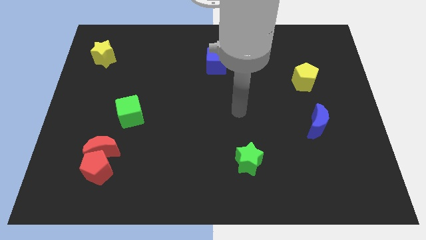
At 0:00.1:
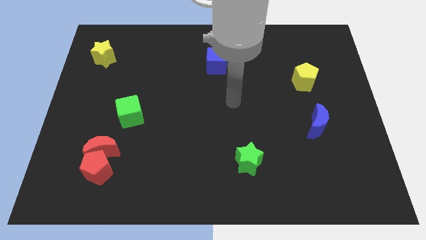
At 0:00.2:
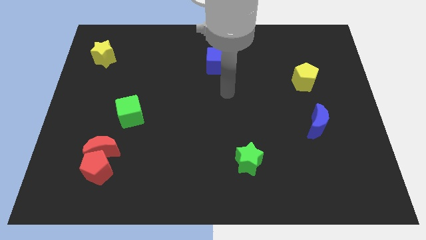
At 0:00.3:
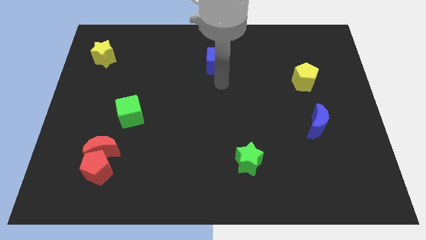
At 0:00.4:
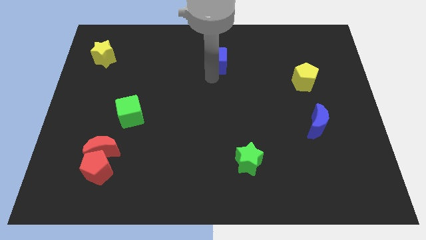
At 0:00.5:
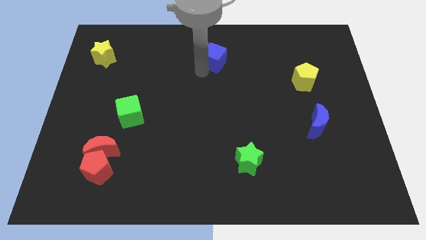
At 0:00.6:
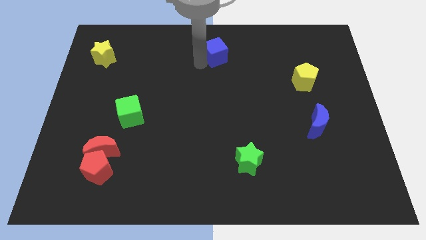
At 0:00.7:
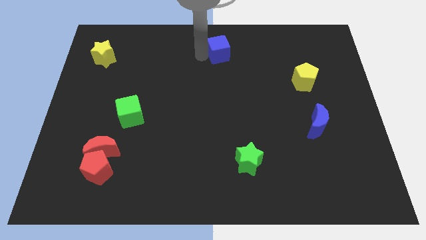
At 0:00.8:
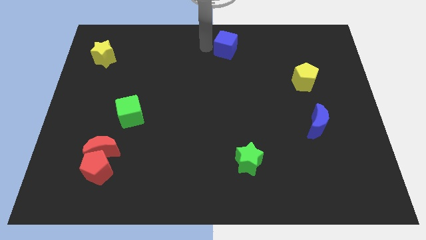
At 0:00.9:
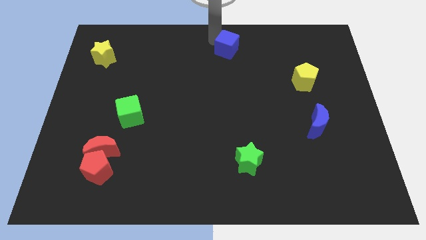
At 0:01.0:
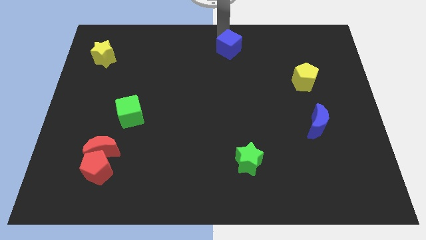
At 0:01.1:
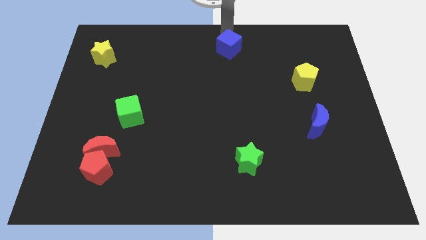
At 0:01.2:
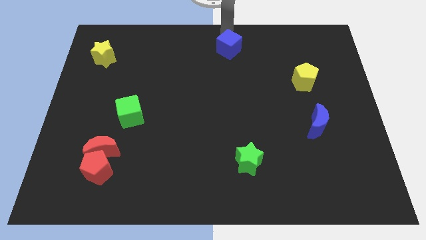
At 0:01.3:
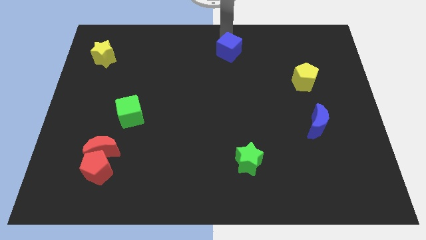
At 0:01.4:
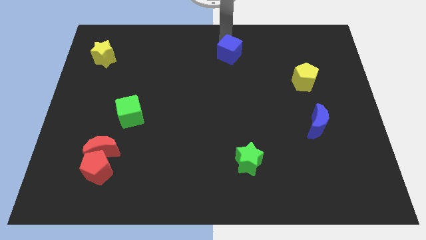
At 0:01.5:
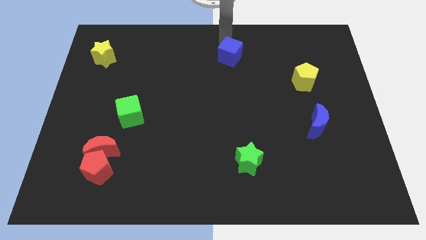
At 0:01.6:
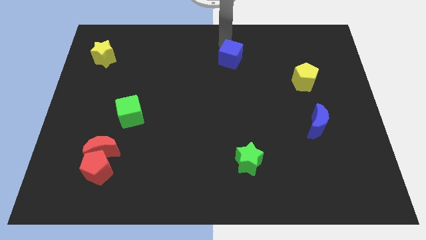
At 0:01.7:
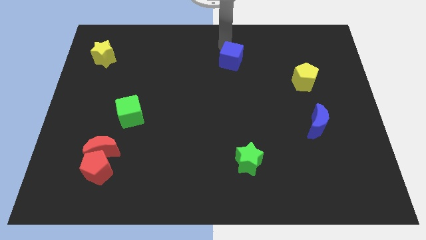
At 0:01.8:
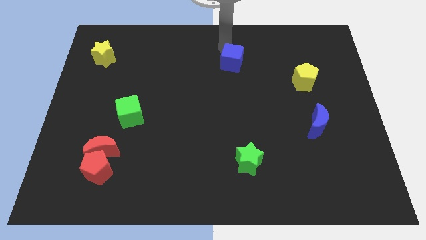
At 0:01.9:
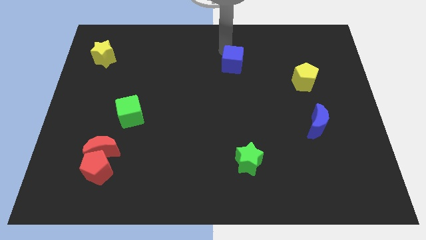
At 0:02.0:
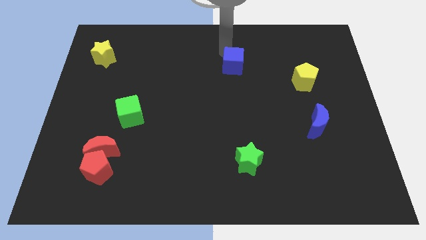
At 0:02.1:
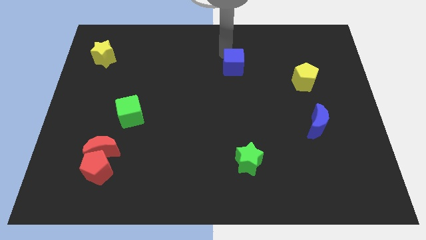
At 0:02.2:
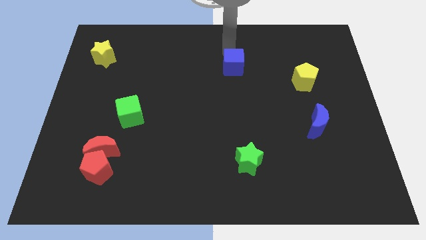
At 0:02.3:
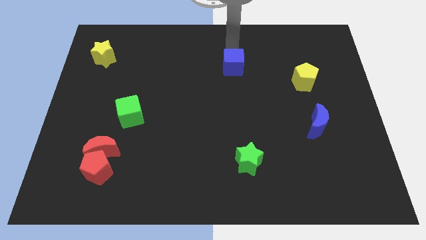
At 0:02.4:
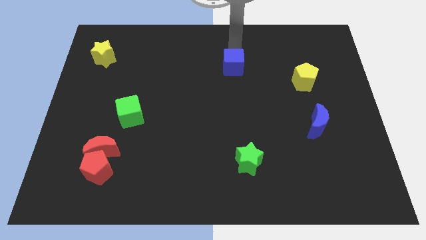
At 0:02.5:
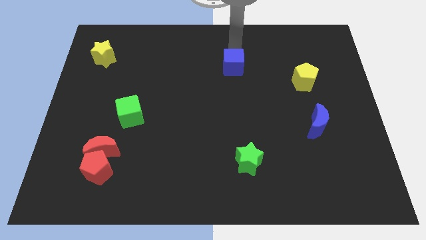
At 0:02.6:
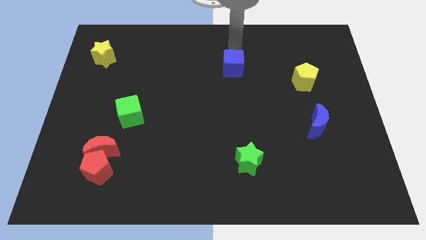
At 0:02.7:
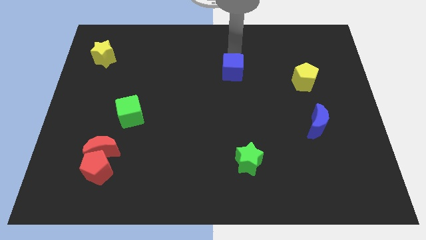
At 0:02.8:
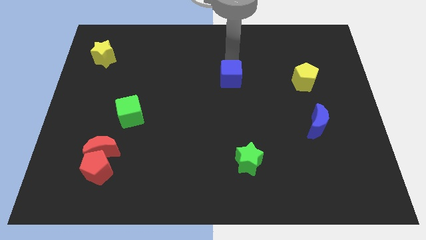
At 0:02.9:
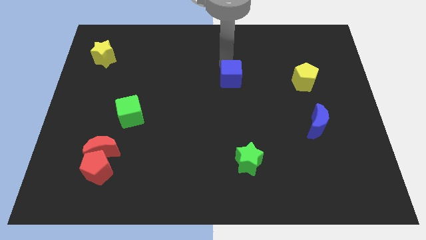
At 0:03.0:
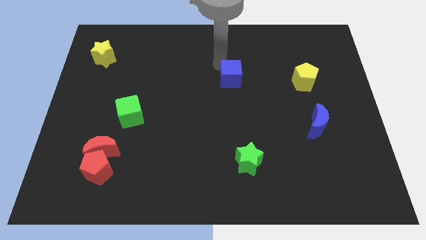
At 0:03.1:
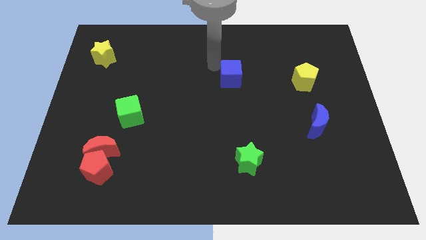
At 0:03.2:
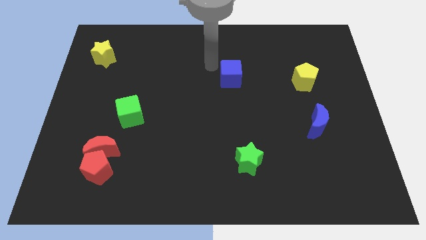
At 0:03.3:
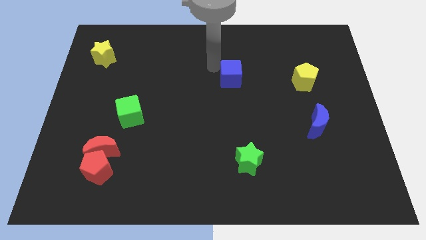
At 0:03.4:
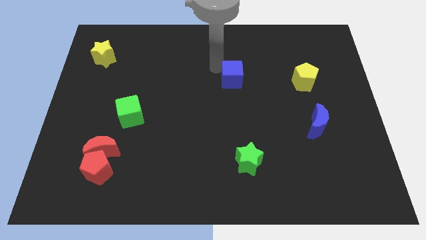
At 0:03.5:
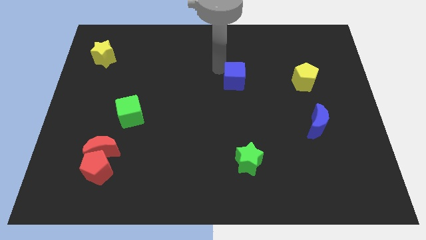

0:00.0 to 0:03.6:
slightly move the blue cube down and then right

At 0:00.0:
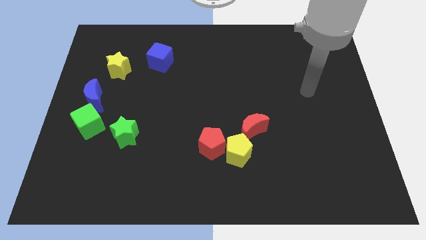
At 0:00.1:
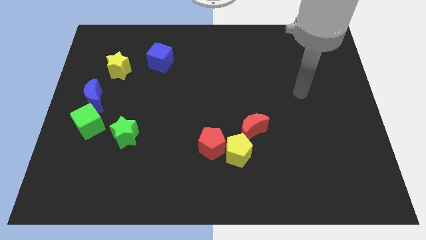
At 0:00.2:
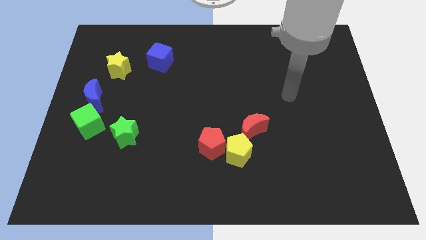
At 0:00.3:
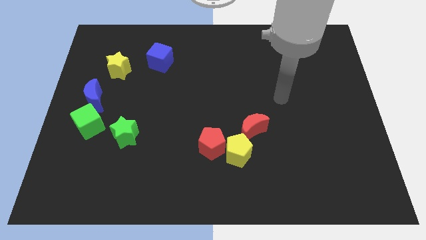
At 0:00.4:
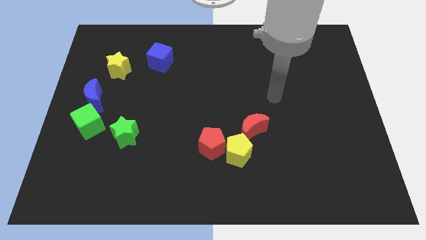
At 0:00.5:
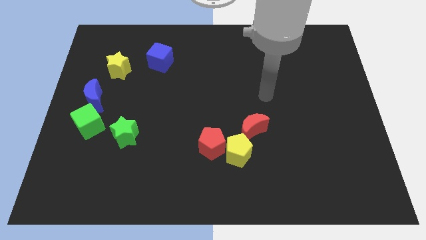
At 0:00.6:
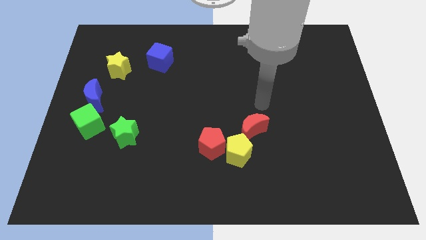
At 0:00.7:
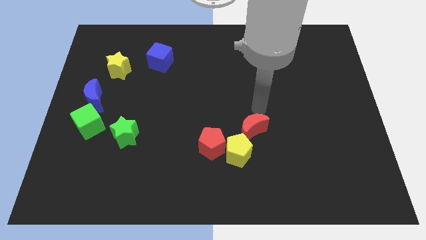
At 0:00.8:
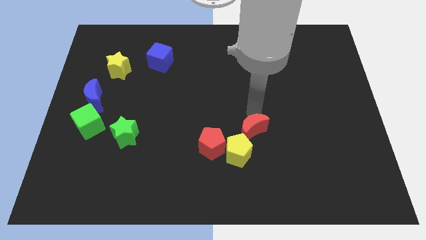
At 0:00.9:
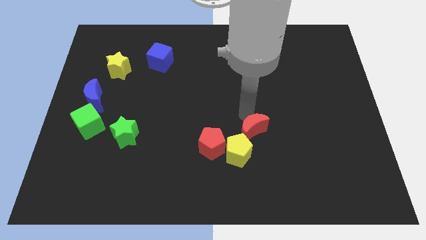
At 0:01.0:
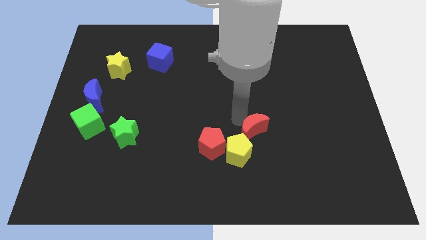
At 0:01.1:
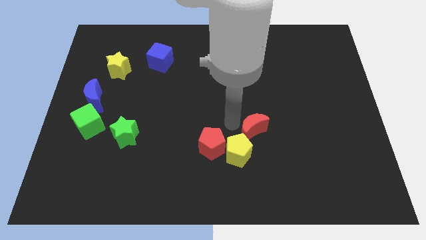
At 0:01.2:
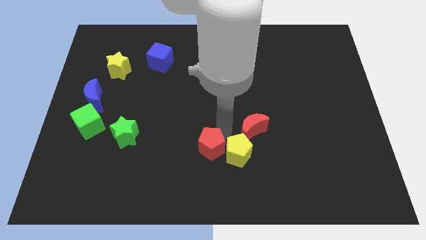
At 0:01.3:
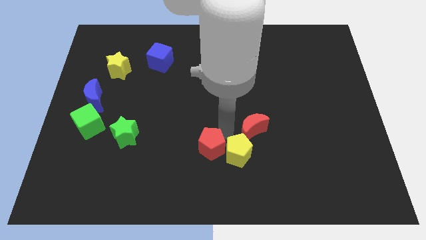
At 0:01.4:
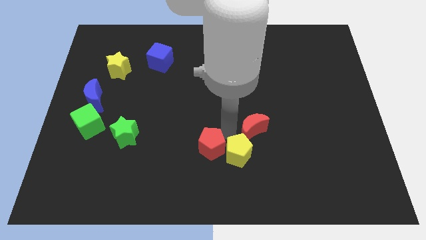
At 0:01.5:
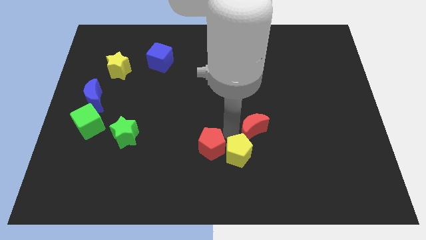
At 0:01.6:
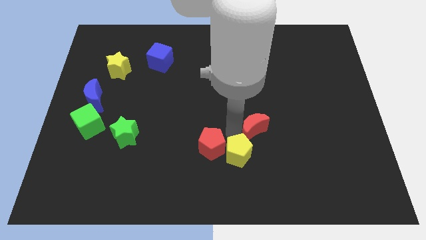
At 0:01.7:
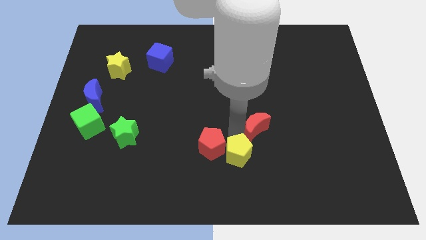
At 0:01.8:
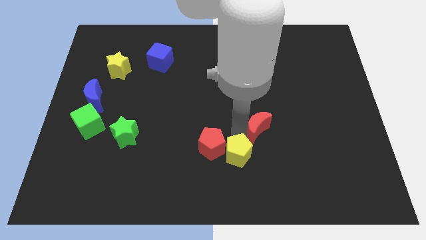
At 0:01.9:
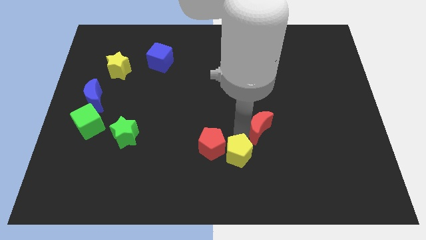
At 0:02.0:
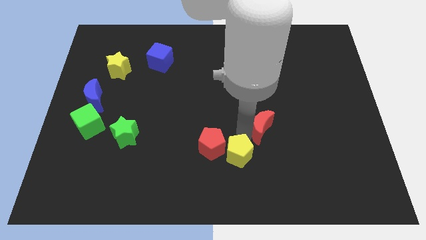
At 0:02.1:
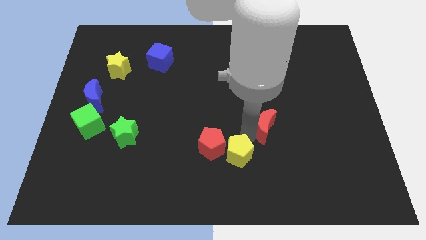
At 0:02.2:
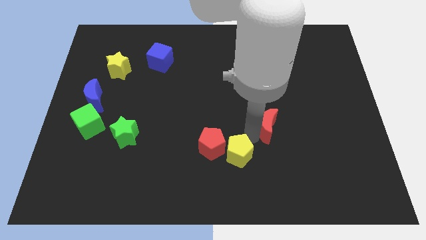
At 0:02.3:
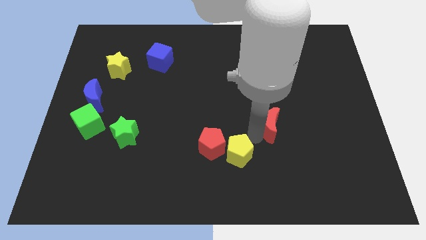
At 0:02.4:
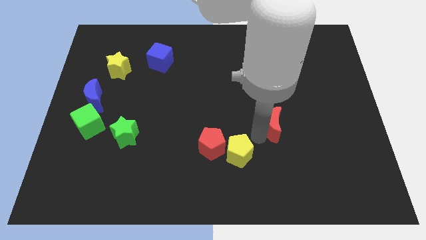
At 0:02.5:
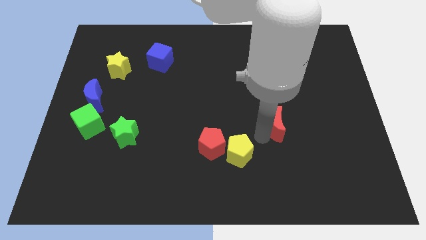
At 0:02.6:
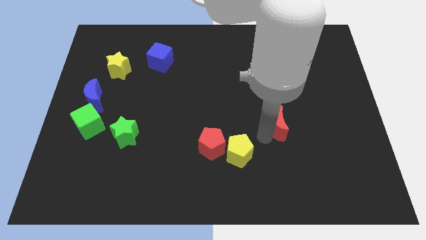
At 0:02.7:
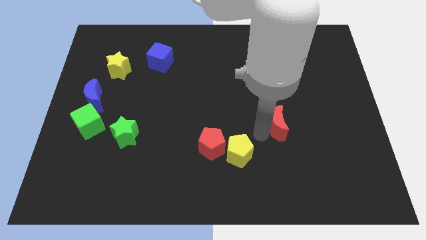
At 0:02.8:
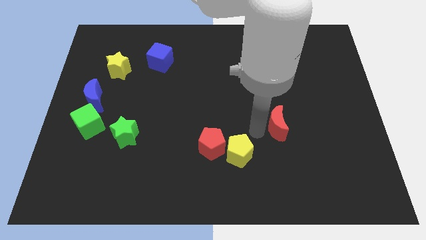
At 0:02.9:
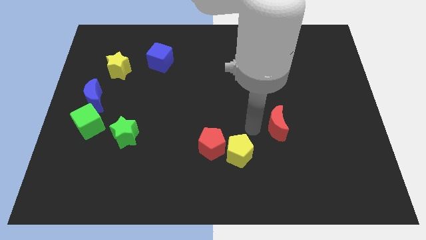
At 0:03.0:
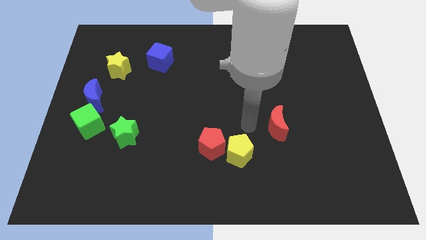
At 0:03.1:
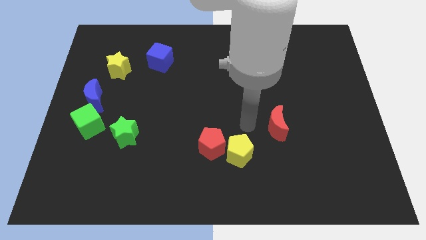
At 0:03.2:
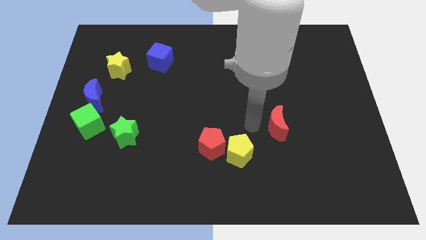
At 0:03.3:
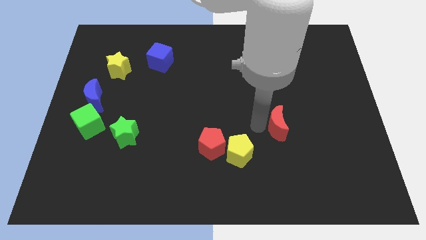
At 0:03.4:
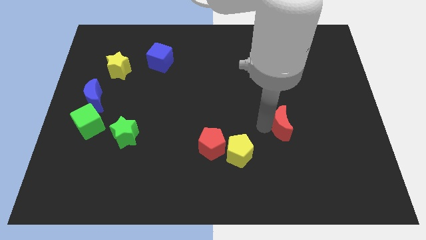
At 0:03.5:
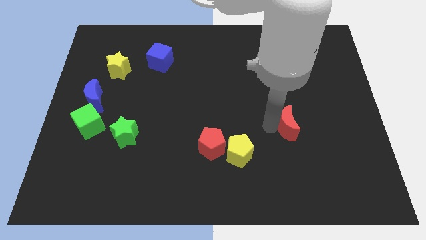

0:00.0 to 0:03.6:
slightly move the red moon to the right

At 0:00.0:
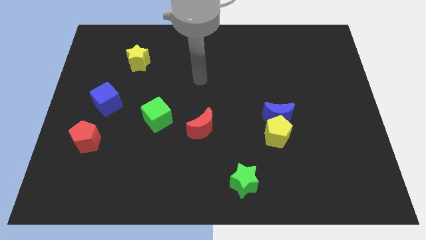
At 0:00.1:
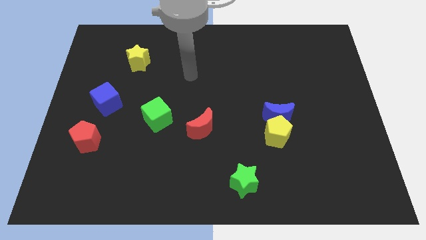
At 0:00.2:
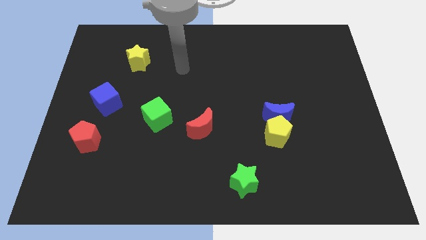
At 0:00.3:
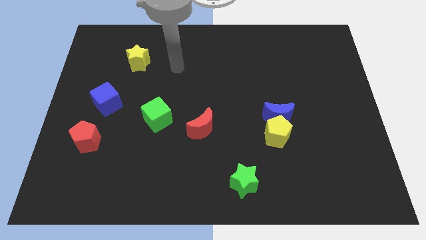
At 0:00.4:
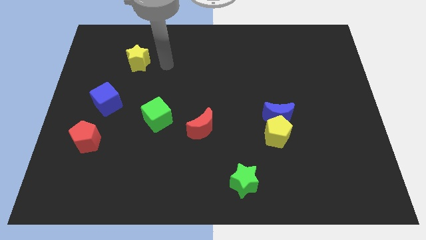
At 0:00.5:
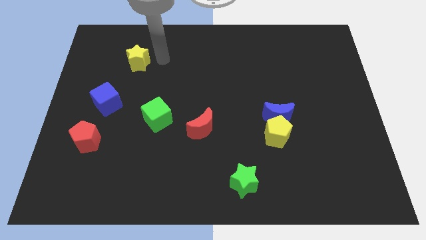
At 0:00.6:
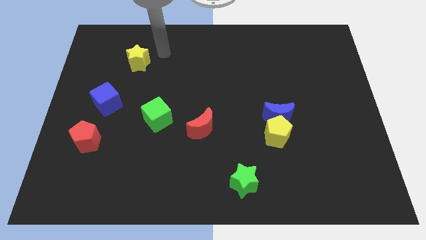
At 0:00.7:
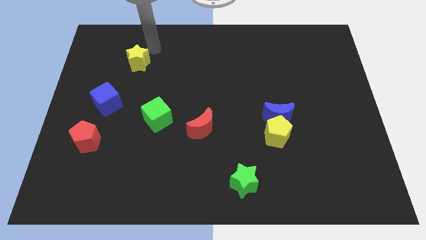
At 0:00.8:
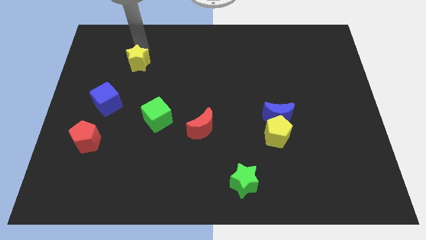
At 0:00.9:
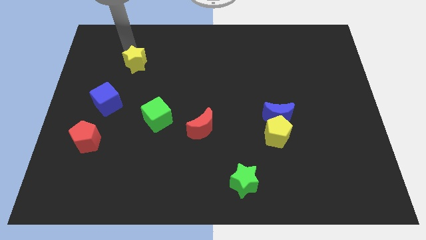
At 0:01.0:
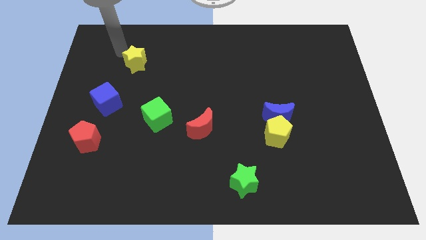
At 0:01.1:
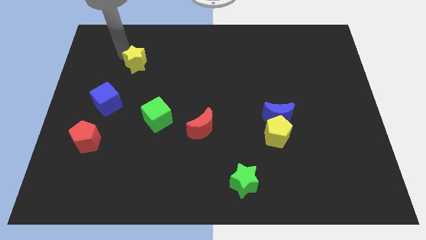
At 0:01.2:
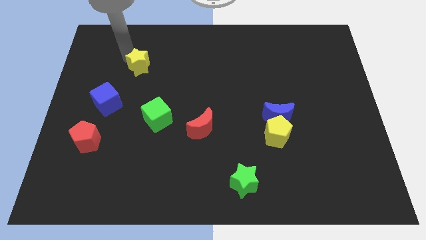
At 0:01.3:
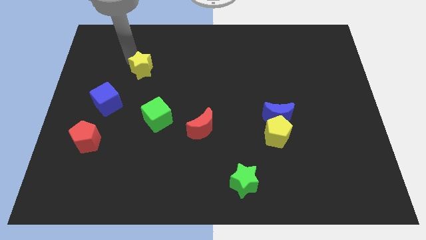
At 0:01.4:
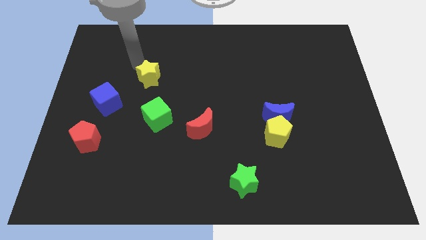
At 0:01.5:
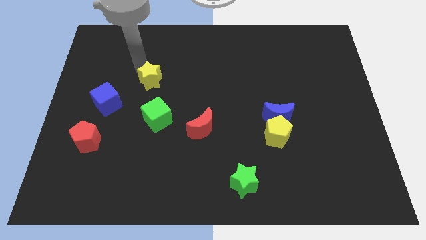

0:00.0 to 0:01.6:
slightly push the yellow star downwards and right
